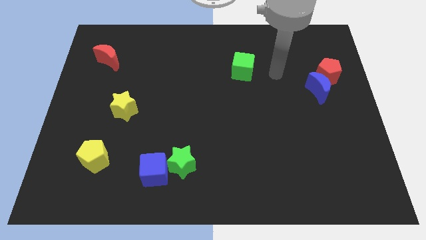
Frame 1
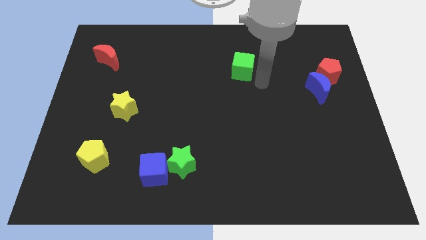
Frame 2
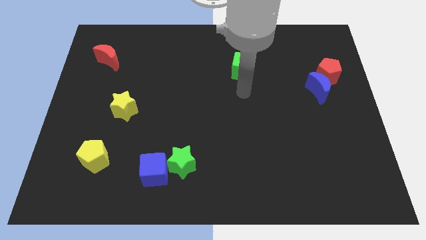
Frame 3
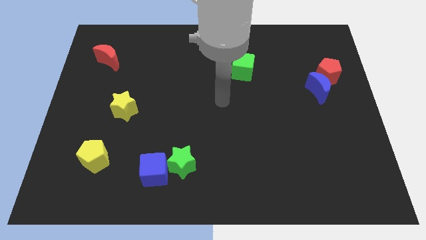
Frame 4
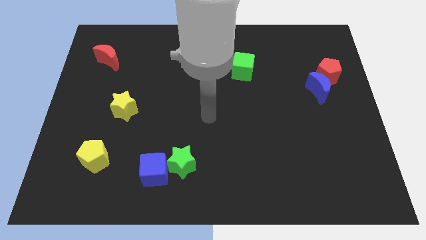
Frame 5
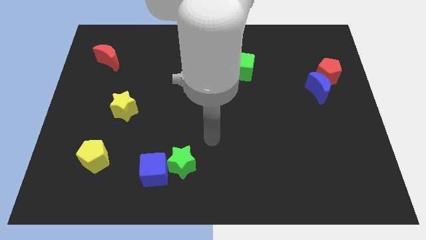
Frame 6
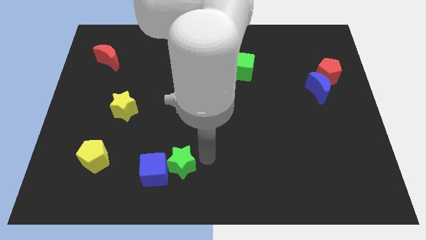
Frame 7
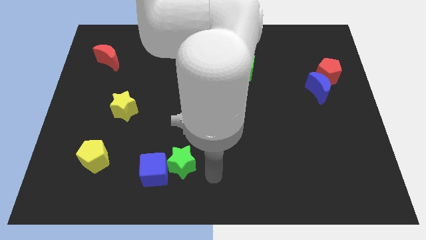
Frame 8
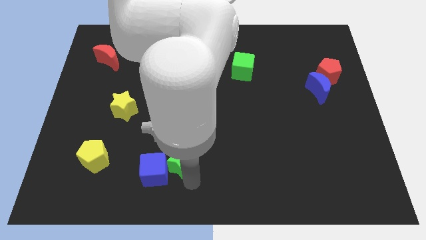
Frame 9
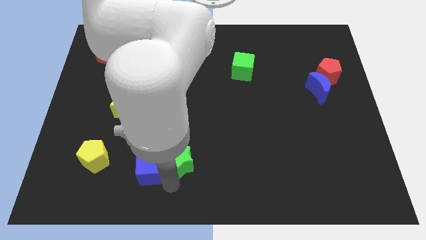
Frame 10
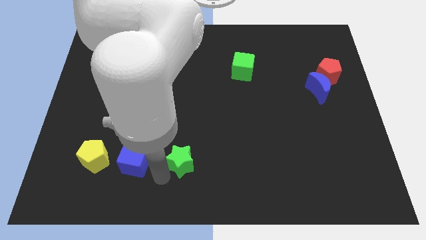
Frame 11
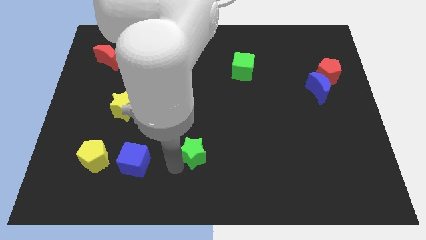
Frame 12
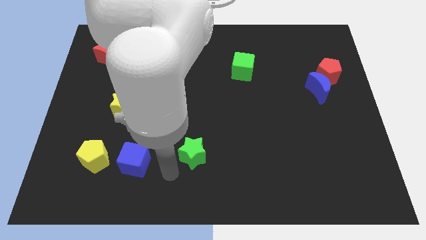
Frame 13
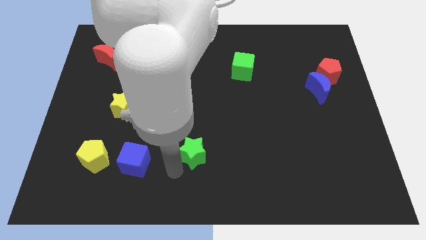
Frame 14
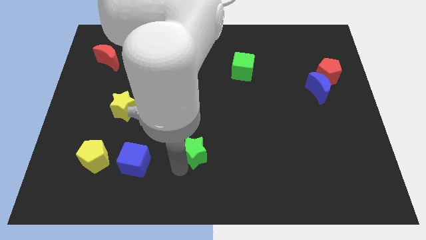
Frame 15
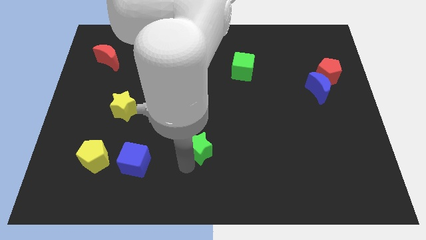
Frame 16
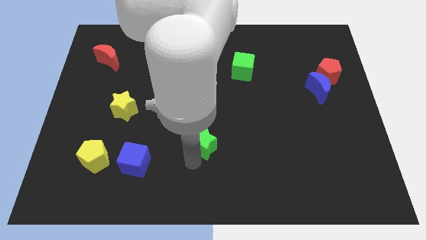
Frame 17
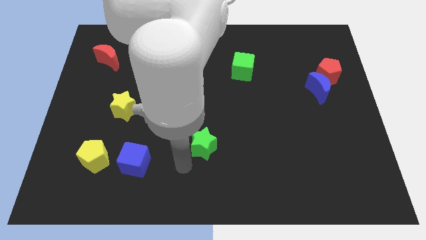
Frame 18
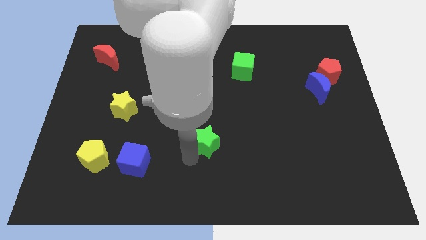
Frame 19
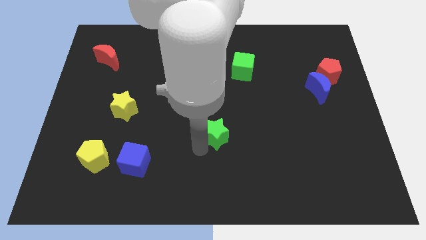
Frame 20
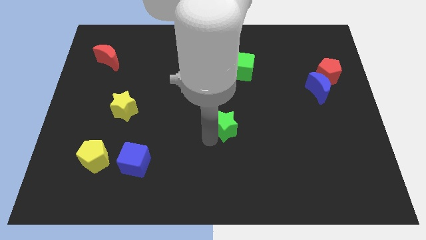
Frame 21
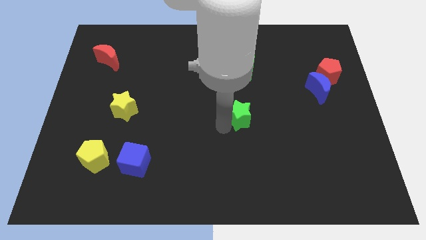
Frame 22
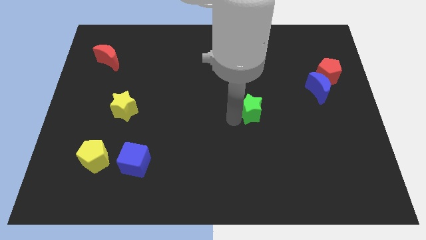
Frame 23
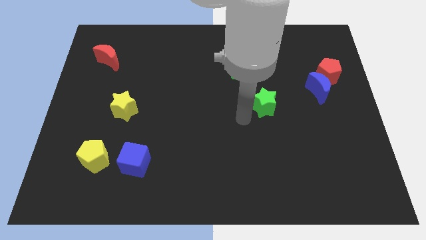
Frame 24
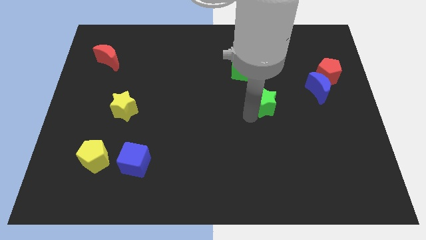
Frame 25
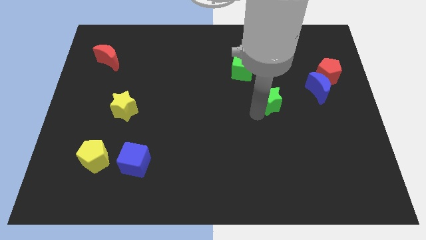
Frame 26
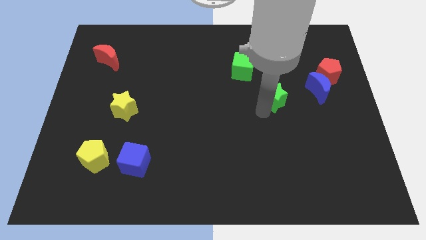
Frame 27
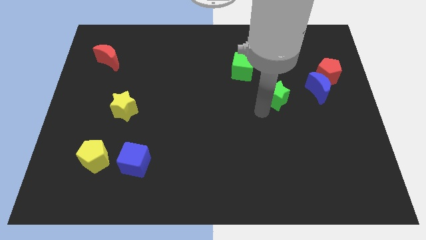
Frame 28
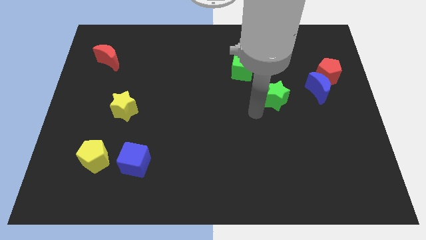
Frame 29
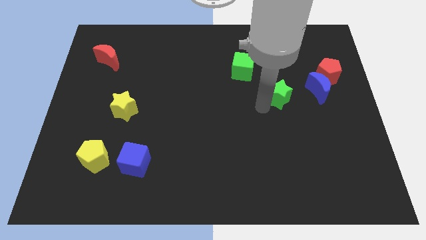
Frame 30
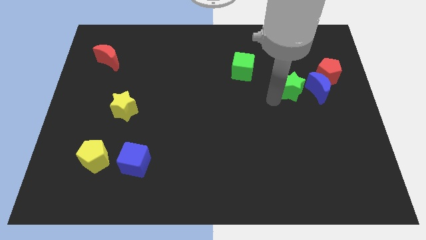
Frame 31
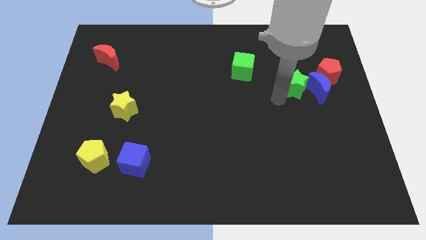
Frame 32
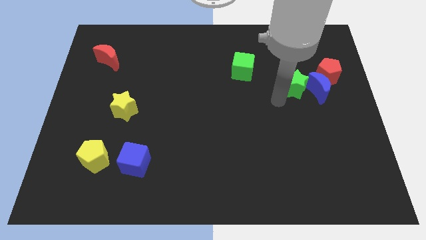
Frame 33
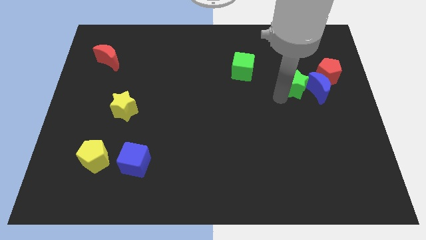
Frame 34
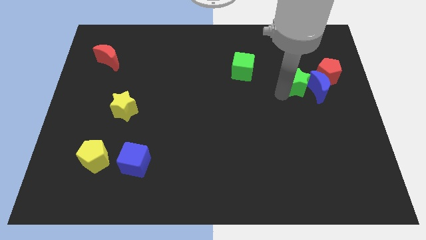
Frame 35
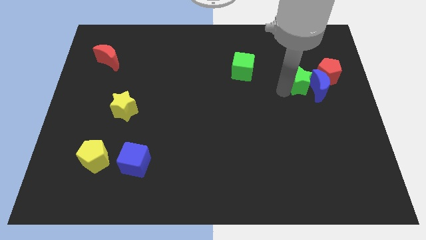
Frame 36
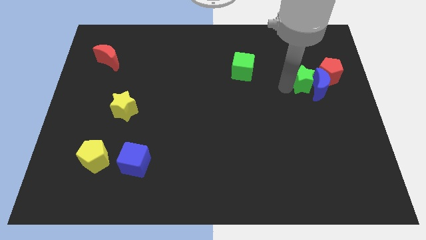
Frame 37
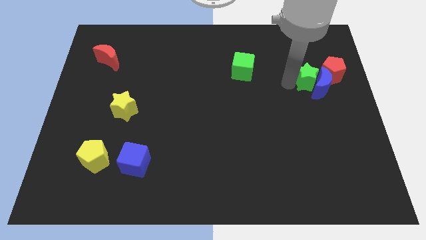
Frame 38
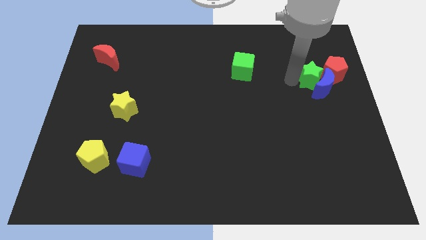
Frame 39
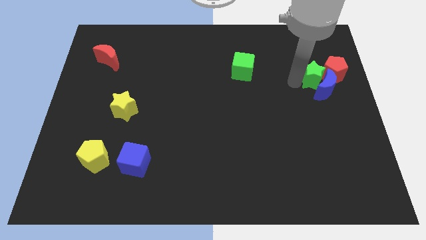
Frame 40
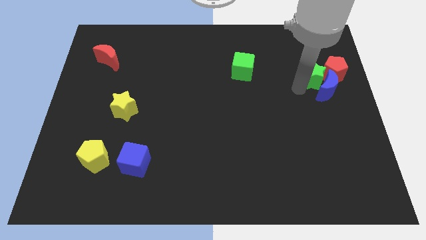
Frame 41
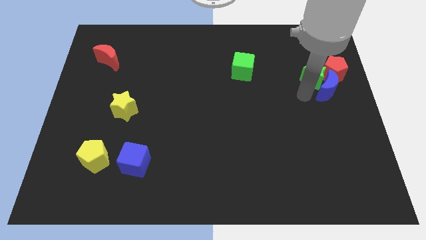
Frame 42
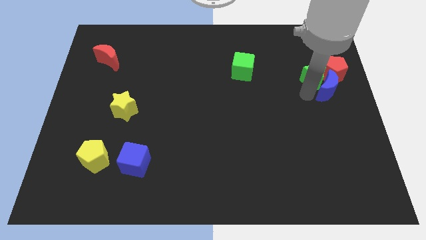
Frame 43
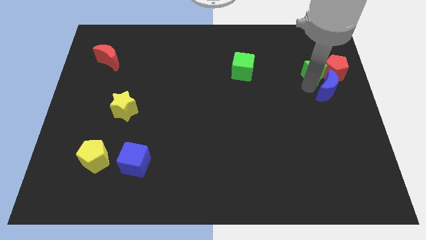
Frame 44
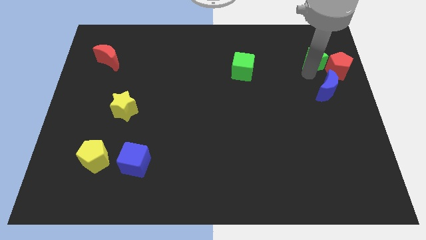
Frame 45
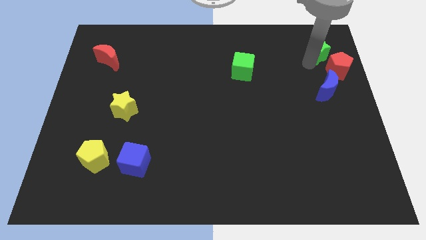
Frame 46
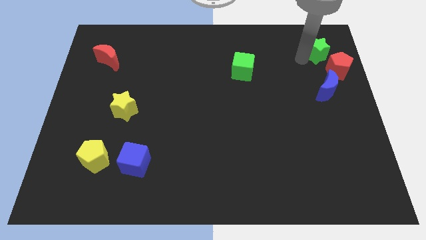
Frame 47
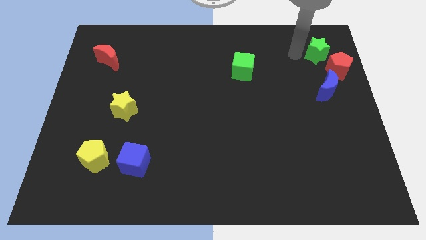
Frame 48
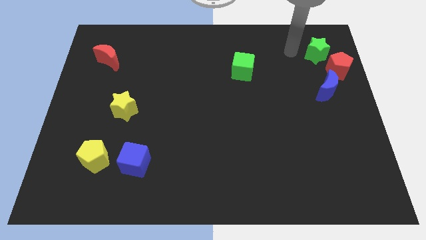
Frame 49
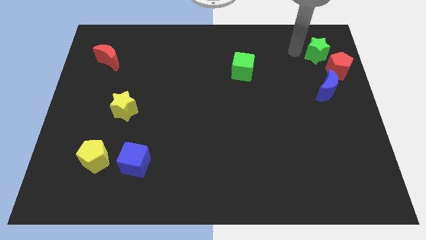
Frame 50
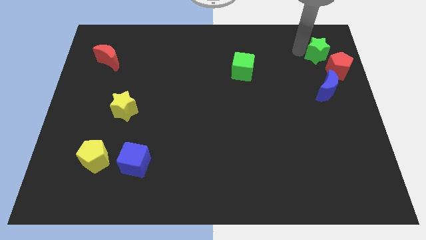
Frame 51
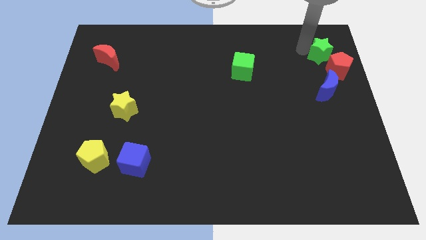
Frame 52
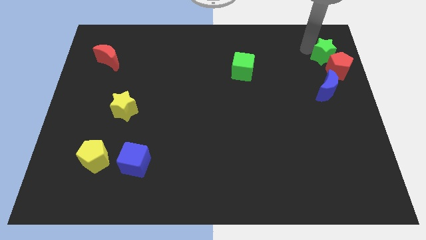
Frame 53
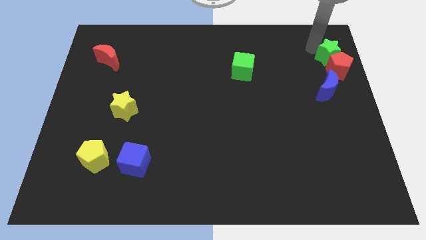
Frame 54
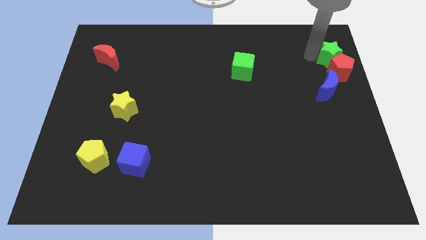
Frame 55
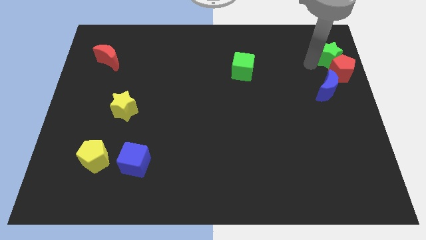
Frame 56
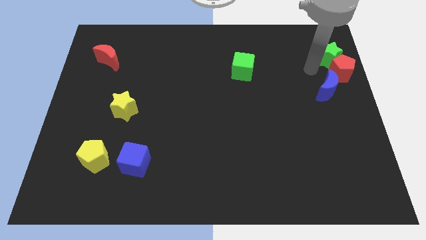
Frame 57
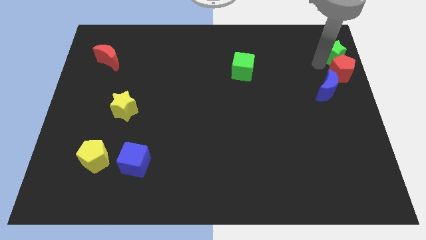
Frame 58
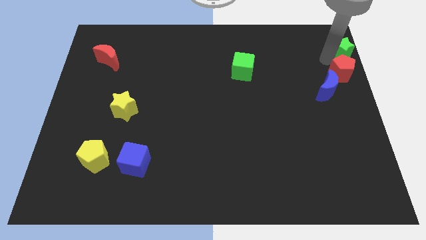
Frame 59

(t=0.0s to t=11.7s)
move the green star to the top right corner
